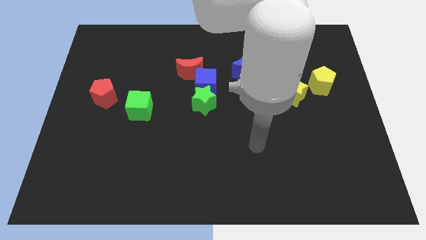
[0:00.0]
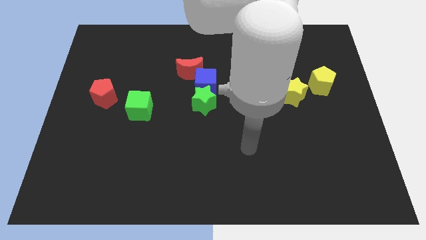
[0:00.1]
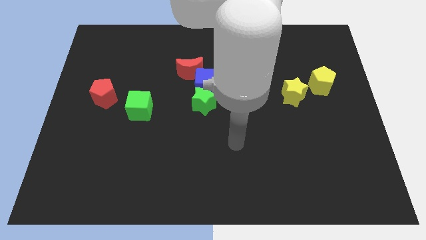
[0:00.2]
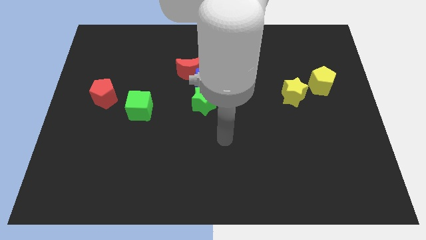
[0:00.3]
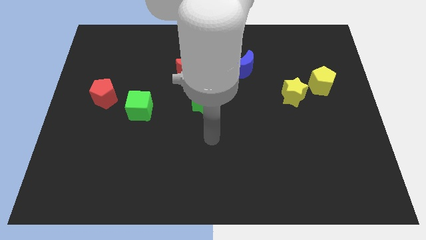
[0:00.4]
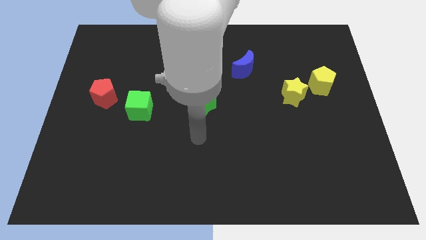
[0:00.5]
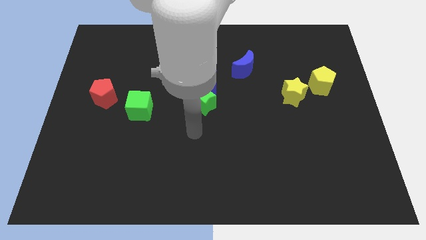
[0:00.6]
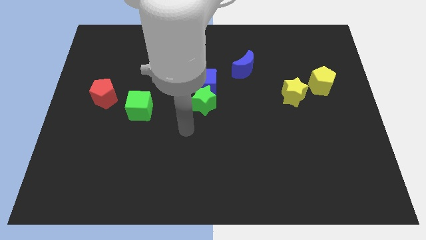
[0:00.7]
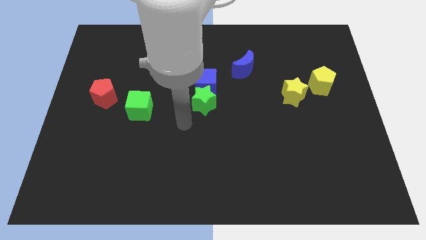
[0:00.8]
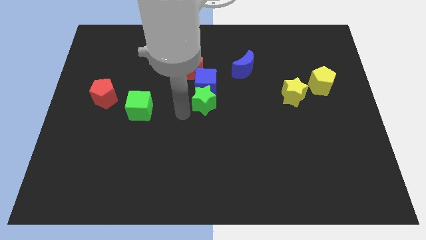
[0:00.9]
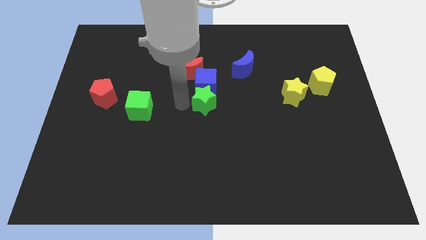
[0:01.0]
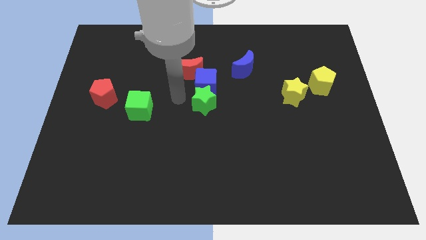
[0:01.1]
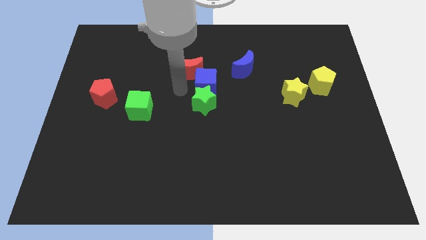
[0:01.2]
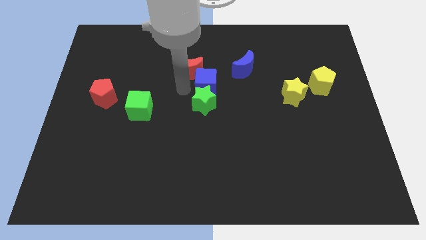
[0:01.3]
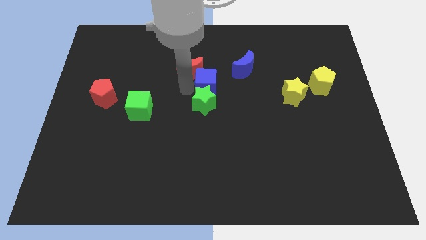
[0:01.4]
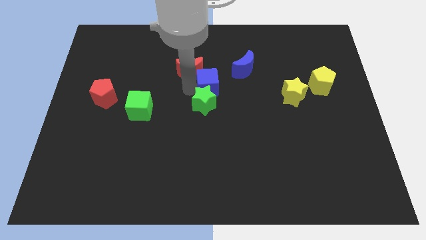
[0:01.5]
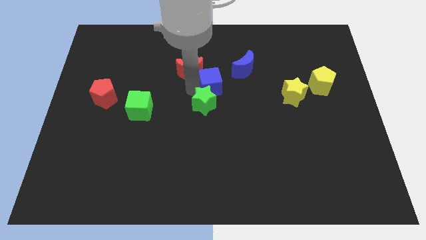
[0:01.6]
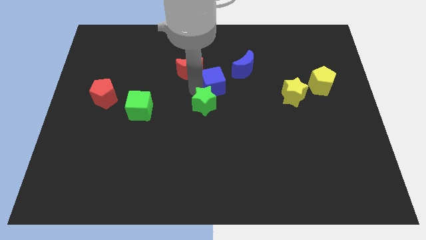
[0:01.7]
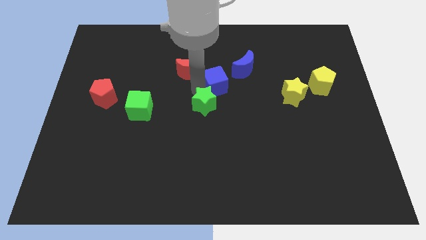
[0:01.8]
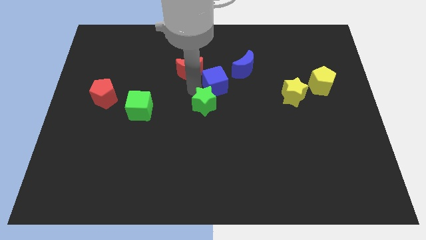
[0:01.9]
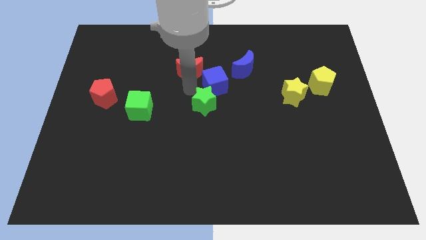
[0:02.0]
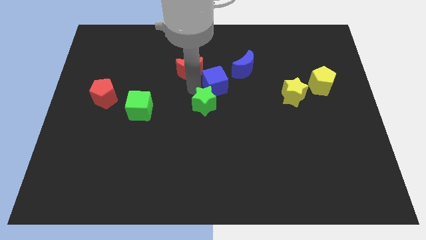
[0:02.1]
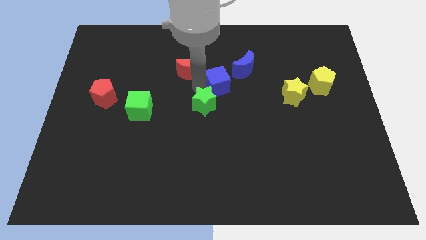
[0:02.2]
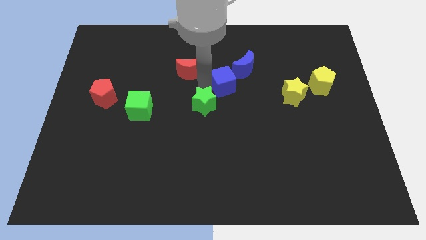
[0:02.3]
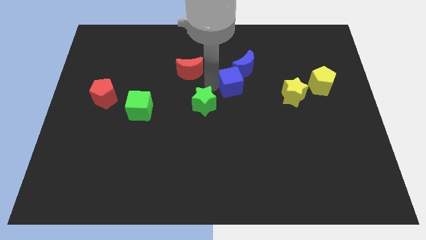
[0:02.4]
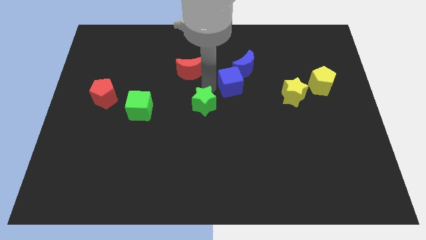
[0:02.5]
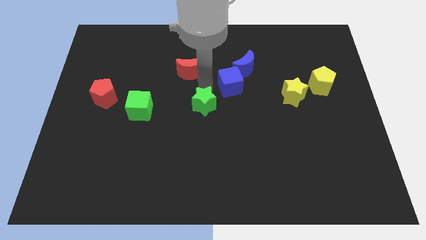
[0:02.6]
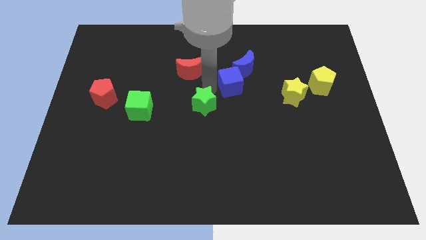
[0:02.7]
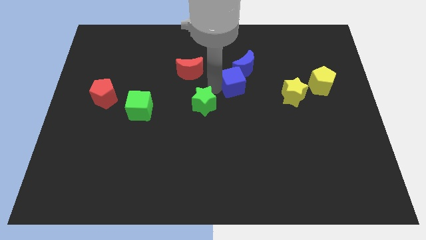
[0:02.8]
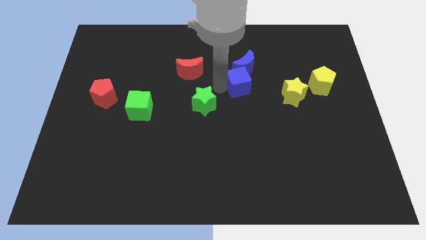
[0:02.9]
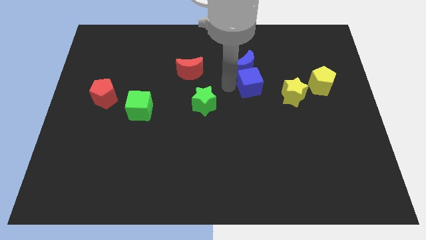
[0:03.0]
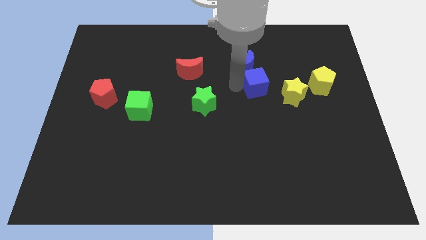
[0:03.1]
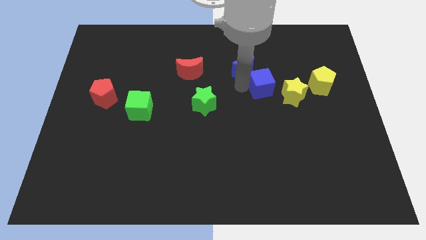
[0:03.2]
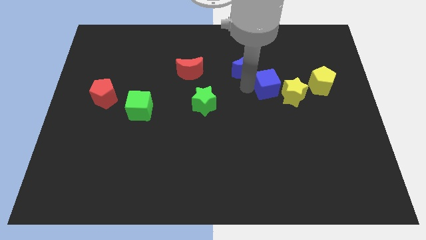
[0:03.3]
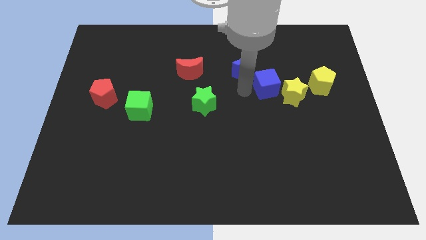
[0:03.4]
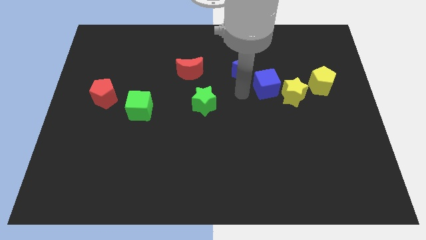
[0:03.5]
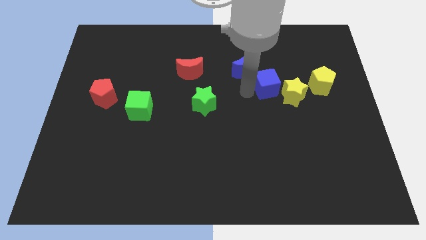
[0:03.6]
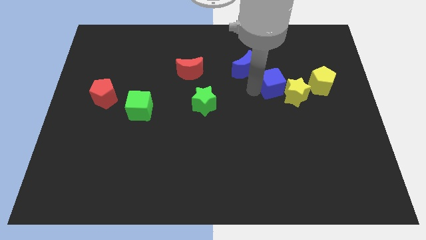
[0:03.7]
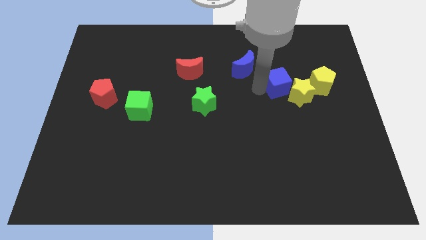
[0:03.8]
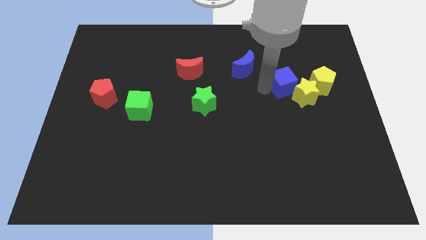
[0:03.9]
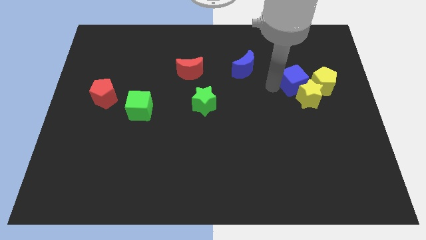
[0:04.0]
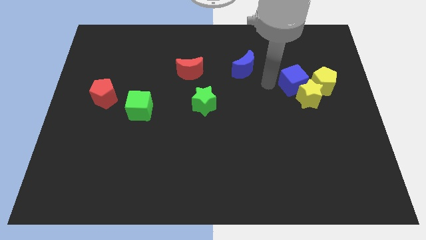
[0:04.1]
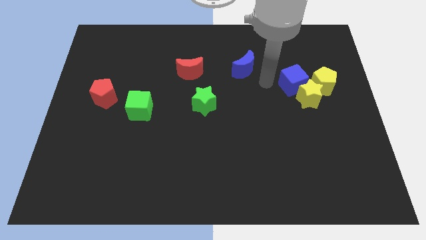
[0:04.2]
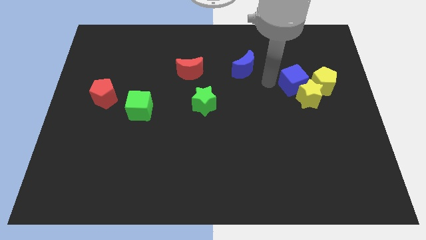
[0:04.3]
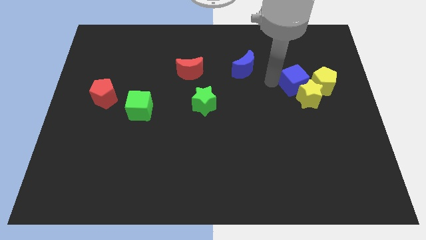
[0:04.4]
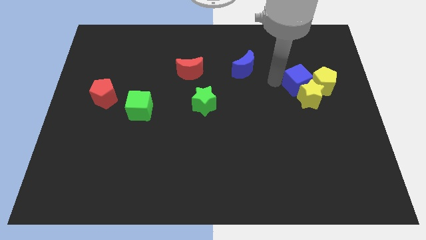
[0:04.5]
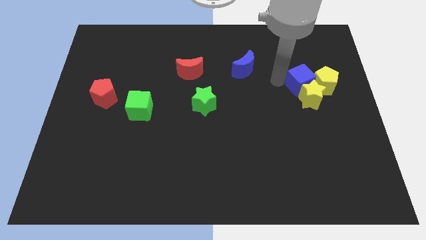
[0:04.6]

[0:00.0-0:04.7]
slide the blue cube close to the yellow pentagon

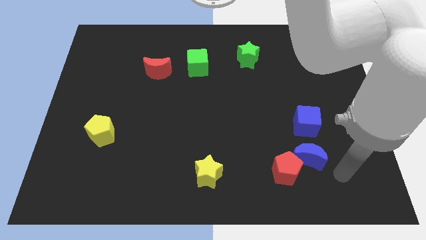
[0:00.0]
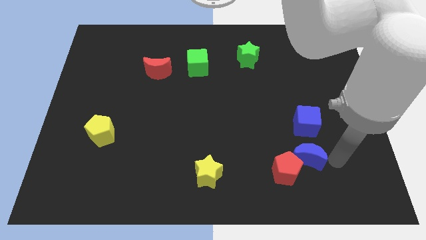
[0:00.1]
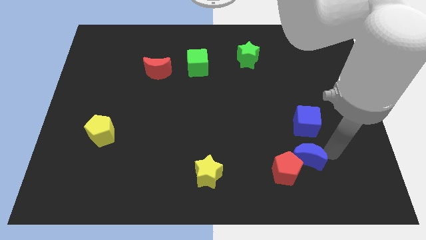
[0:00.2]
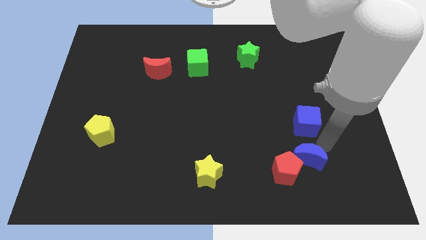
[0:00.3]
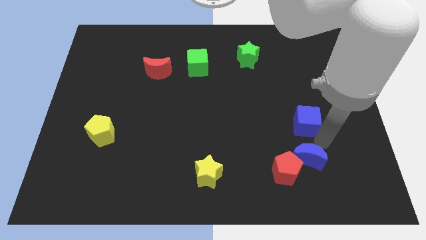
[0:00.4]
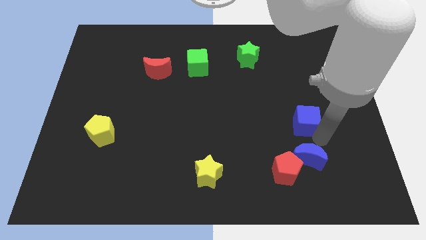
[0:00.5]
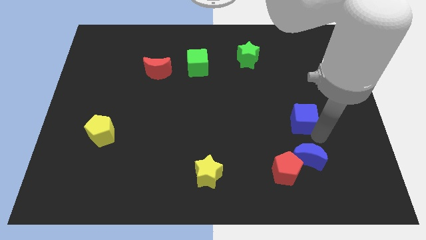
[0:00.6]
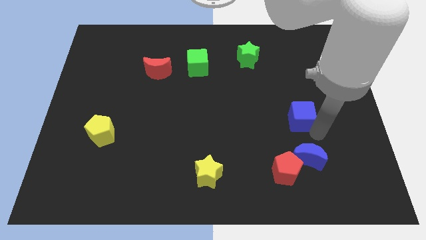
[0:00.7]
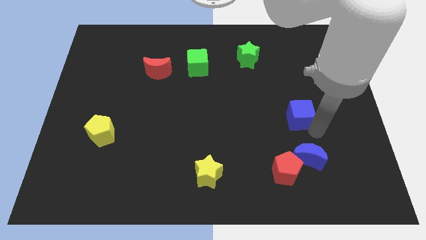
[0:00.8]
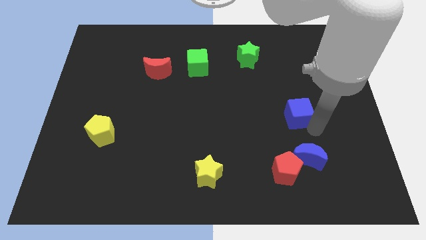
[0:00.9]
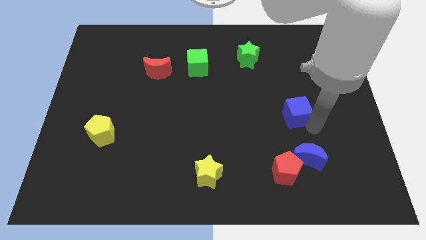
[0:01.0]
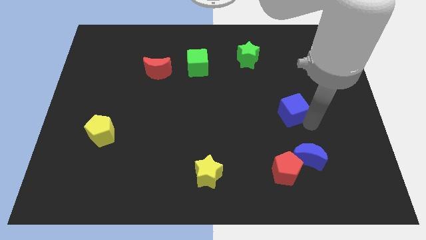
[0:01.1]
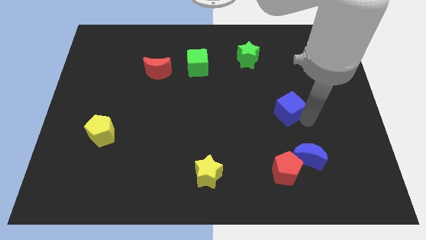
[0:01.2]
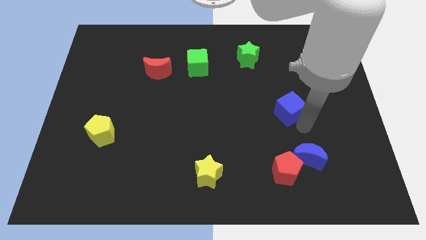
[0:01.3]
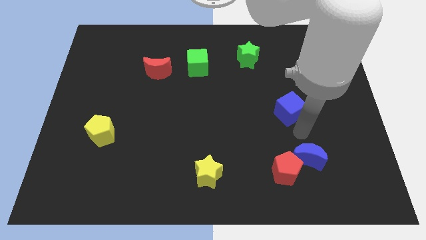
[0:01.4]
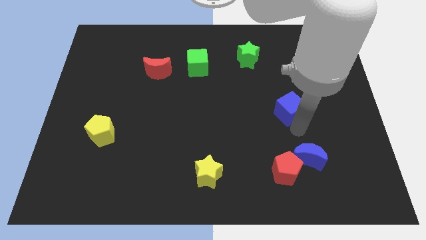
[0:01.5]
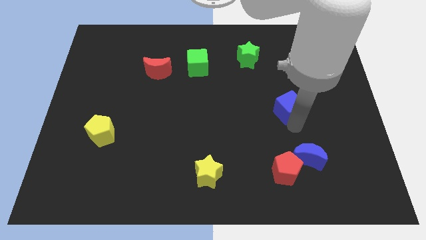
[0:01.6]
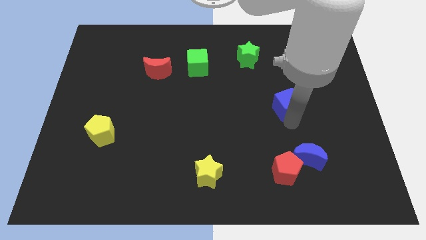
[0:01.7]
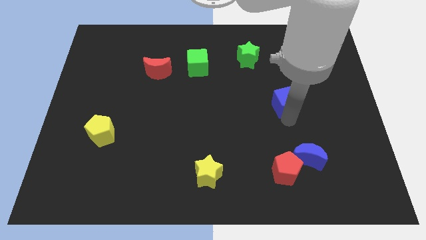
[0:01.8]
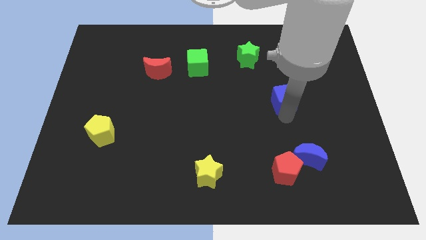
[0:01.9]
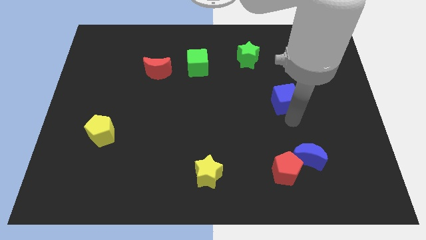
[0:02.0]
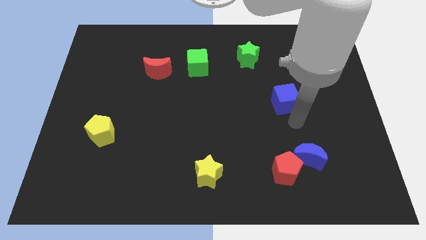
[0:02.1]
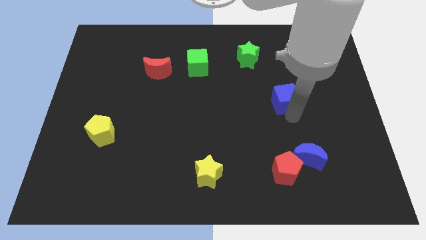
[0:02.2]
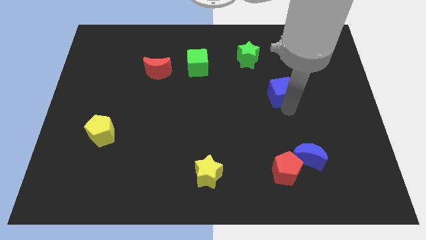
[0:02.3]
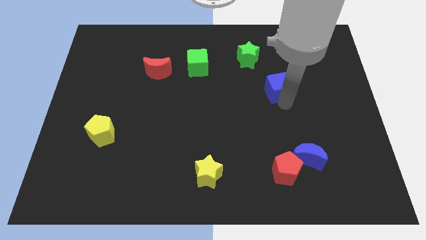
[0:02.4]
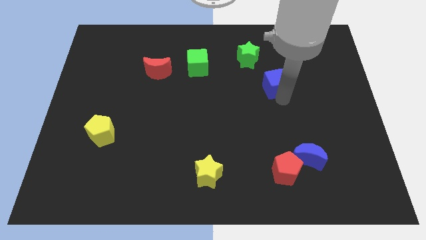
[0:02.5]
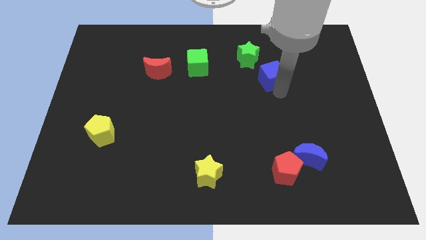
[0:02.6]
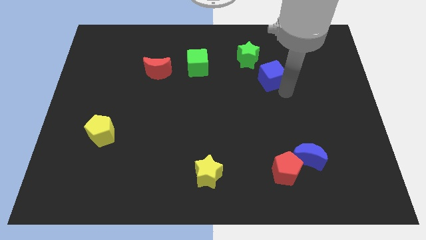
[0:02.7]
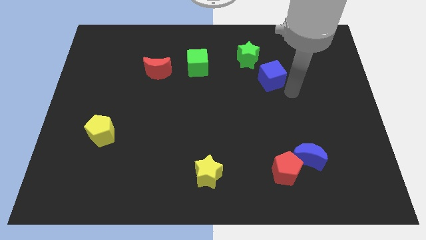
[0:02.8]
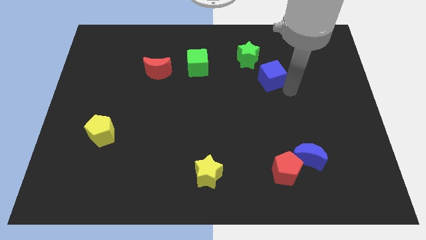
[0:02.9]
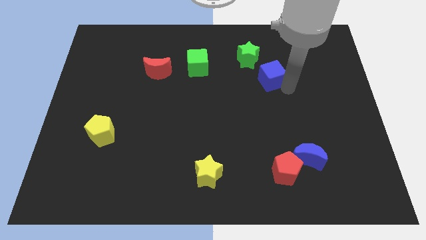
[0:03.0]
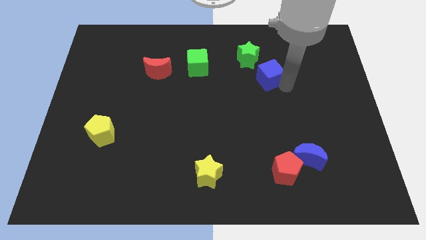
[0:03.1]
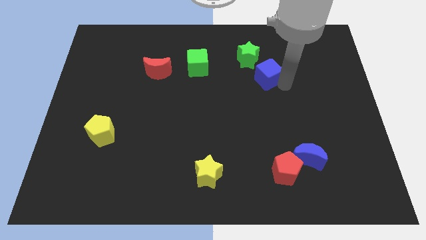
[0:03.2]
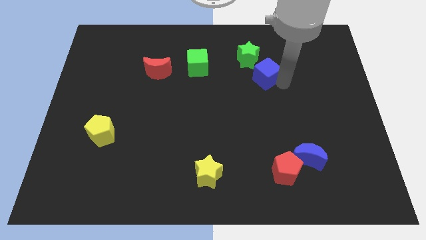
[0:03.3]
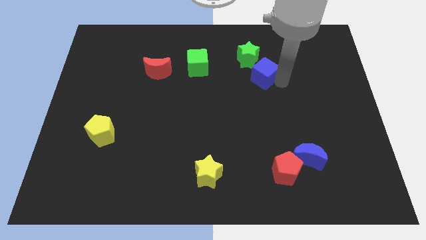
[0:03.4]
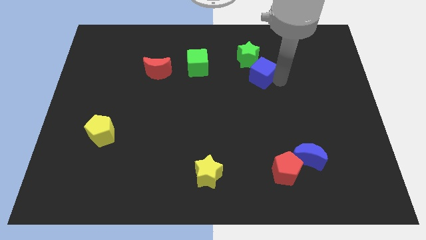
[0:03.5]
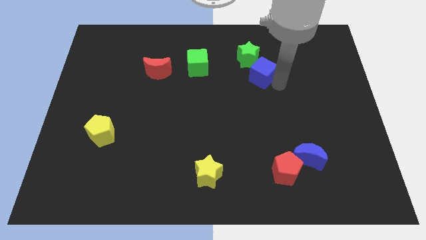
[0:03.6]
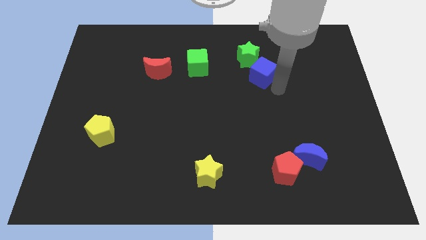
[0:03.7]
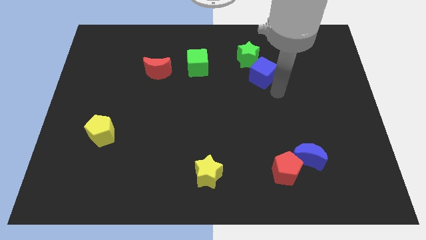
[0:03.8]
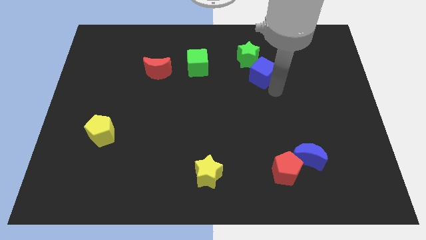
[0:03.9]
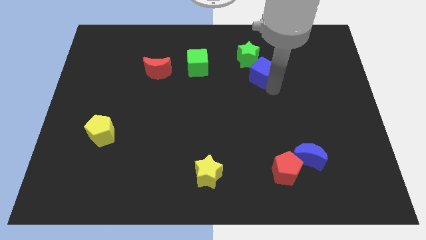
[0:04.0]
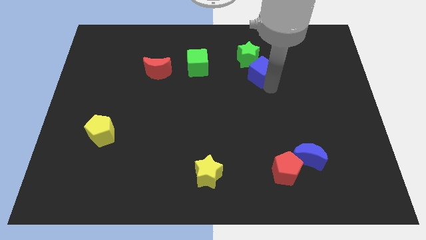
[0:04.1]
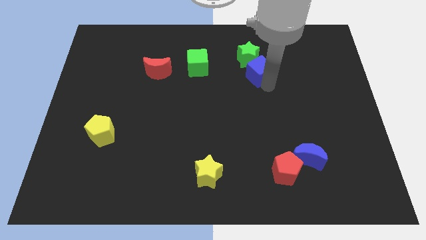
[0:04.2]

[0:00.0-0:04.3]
slide the blue cube towards the green star
